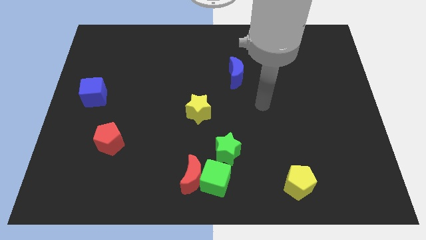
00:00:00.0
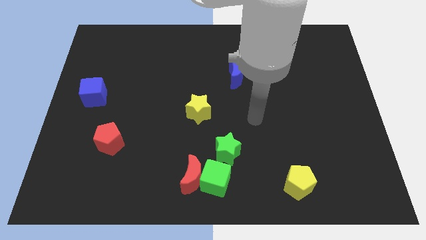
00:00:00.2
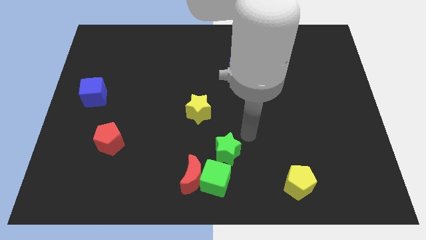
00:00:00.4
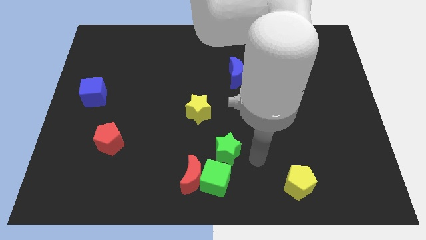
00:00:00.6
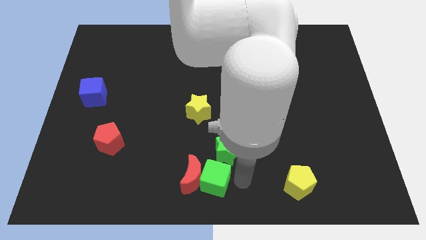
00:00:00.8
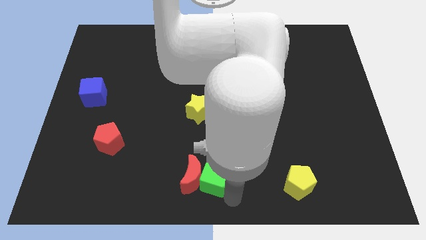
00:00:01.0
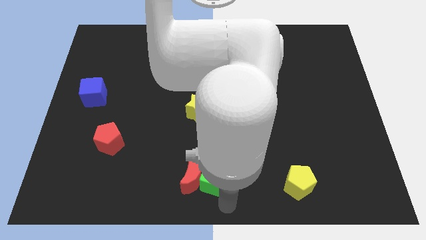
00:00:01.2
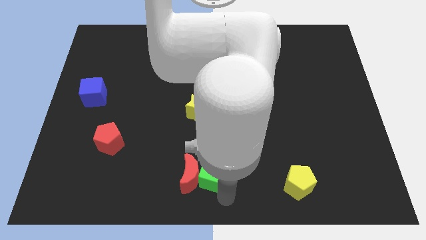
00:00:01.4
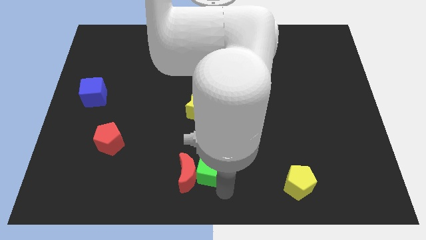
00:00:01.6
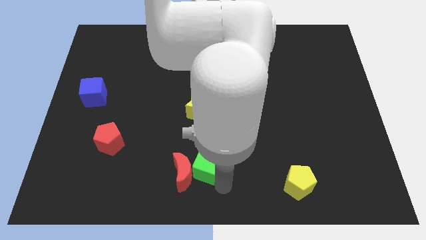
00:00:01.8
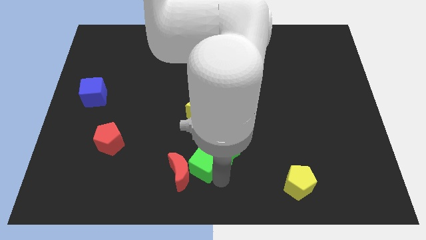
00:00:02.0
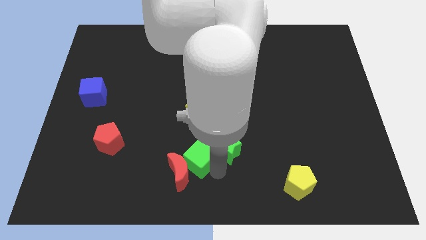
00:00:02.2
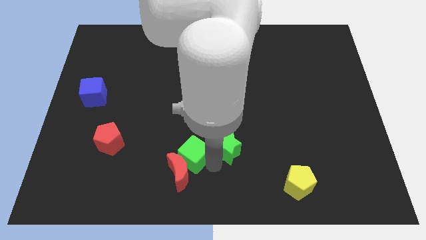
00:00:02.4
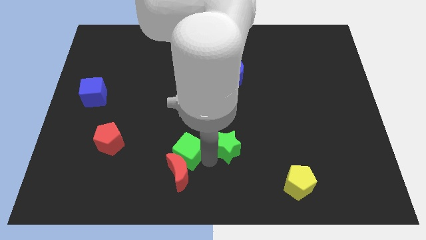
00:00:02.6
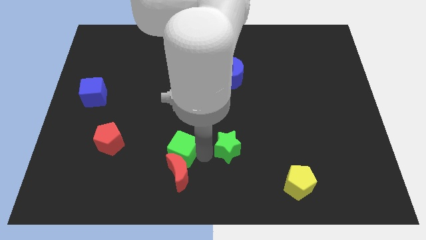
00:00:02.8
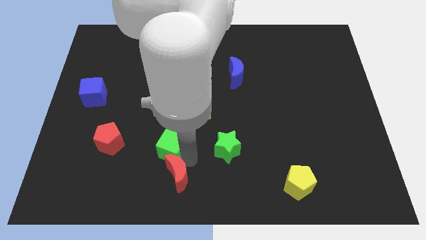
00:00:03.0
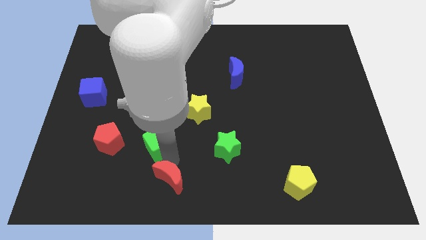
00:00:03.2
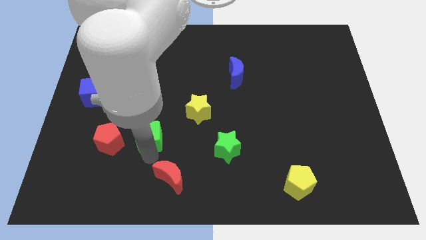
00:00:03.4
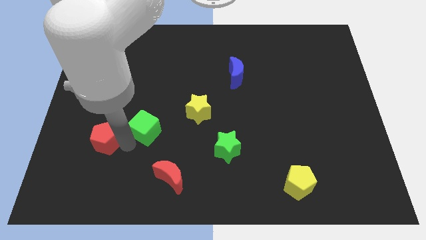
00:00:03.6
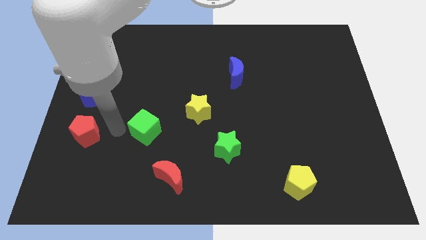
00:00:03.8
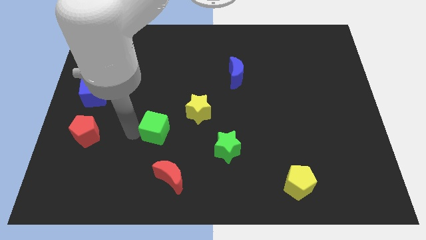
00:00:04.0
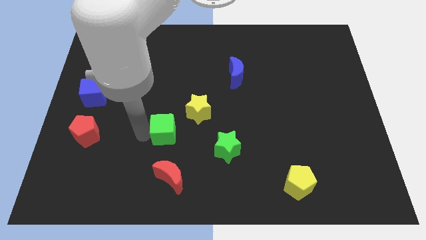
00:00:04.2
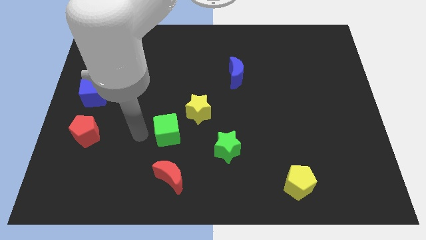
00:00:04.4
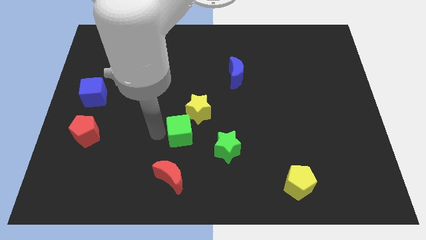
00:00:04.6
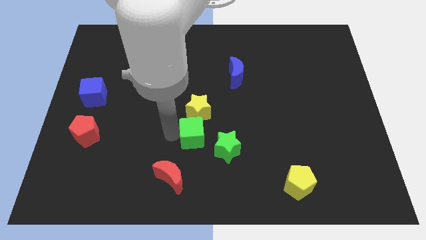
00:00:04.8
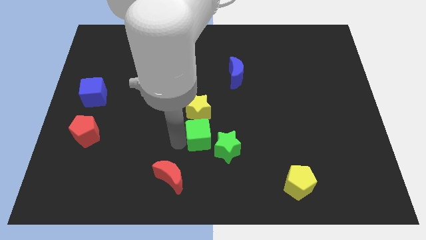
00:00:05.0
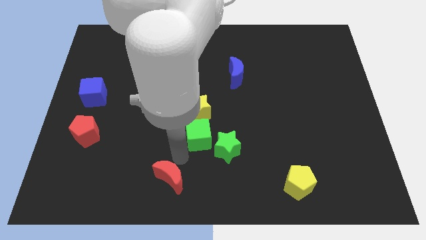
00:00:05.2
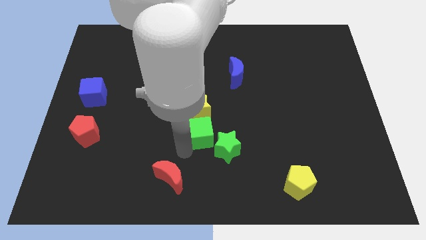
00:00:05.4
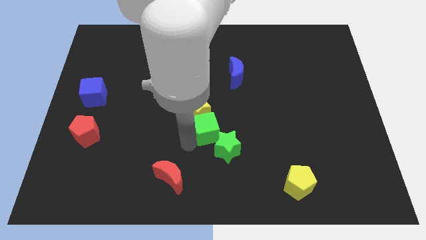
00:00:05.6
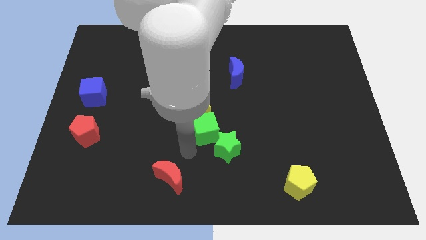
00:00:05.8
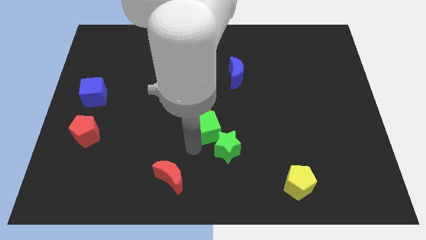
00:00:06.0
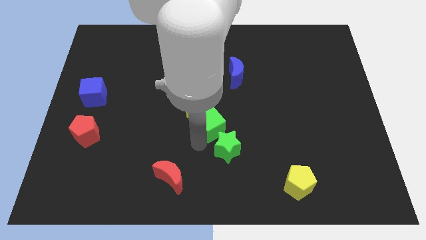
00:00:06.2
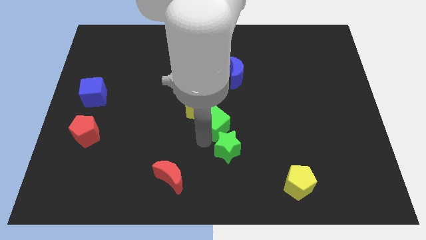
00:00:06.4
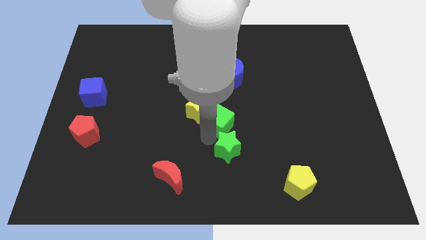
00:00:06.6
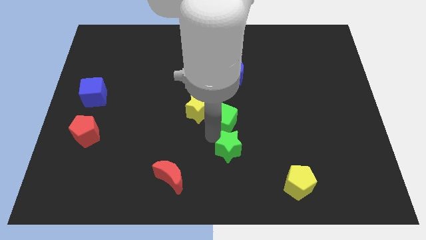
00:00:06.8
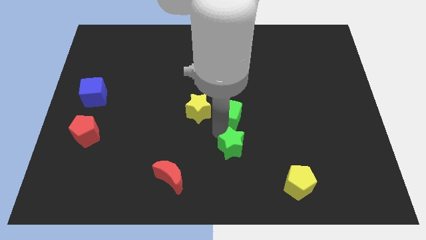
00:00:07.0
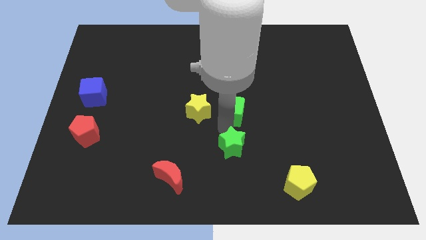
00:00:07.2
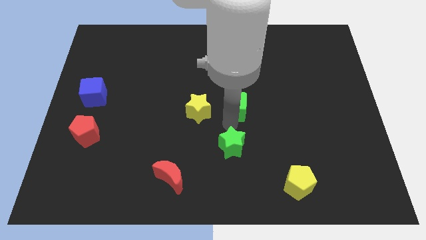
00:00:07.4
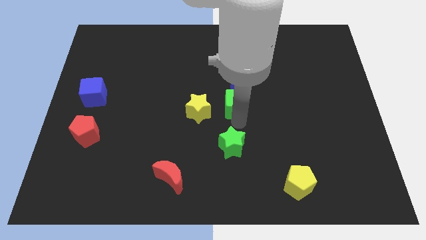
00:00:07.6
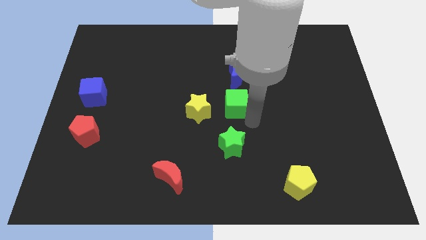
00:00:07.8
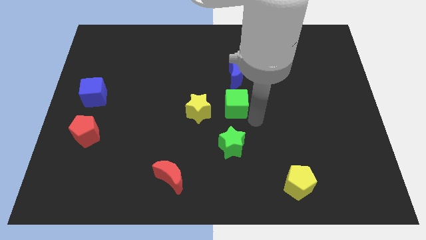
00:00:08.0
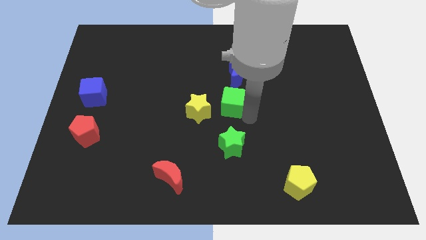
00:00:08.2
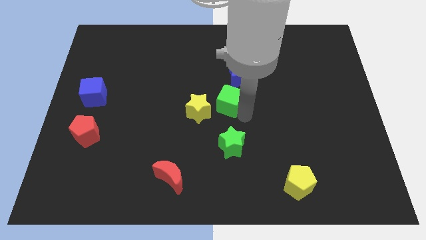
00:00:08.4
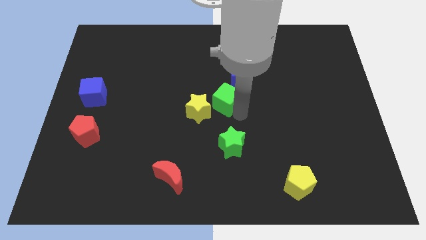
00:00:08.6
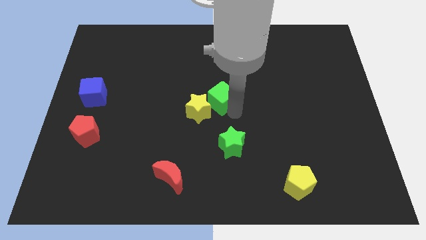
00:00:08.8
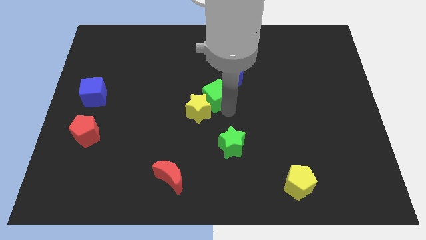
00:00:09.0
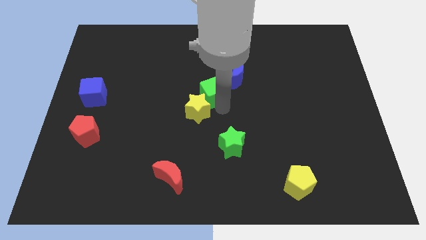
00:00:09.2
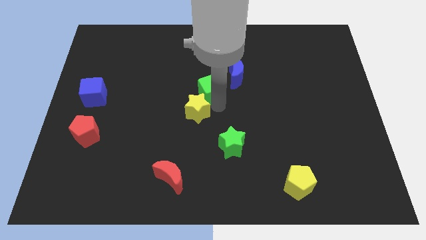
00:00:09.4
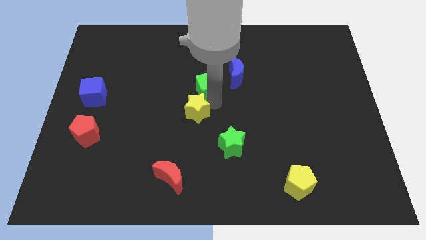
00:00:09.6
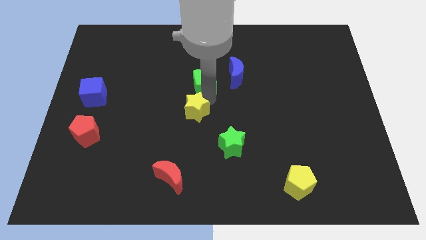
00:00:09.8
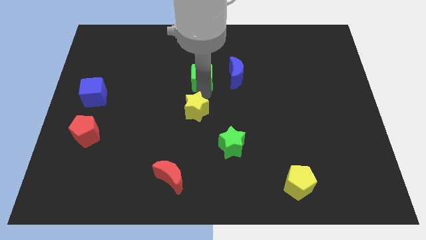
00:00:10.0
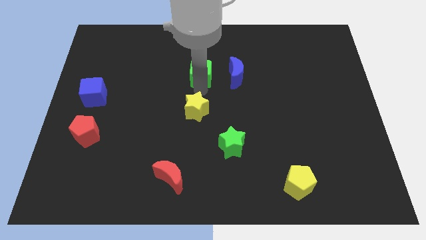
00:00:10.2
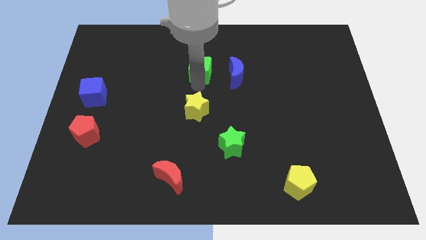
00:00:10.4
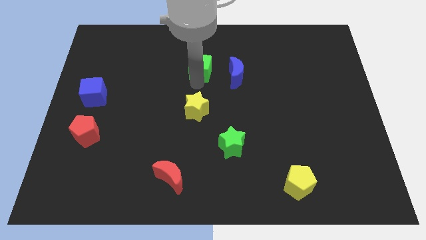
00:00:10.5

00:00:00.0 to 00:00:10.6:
slide the green cube to the top left of the blue moon

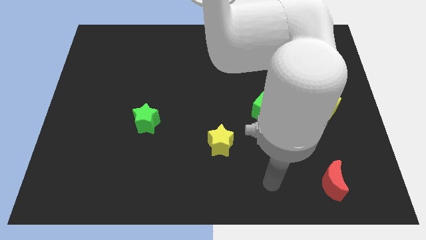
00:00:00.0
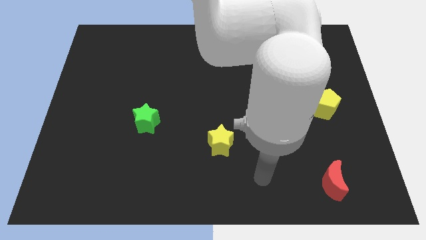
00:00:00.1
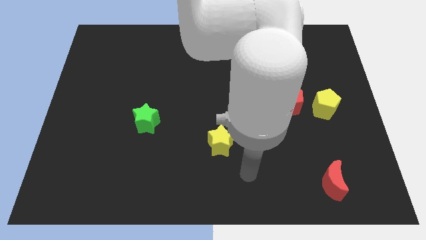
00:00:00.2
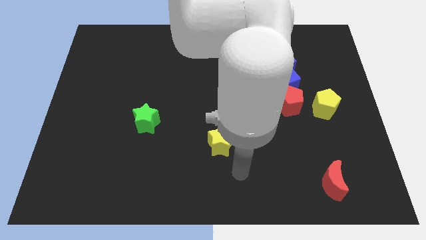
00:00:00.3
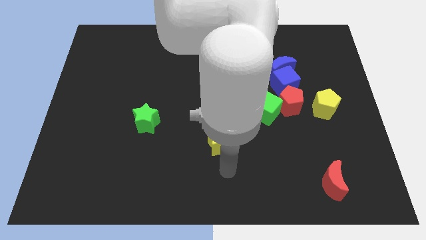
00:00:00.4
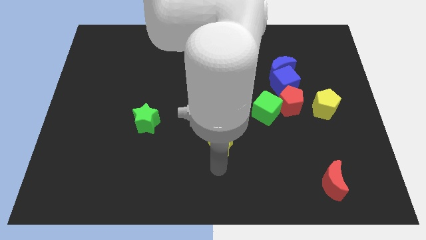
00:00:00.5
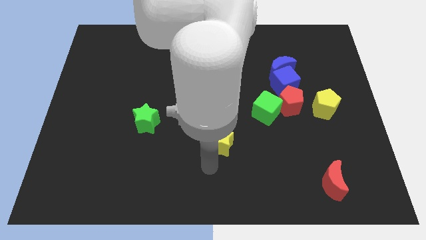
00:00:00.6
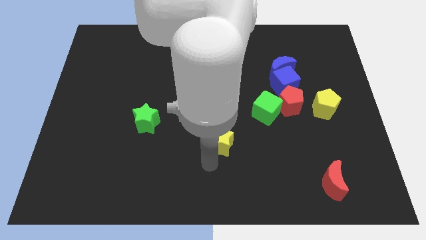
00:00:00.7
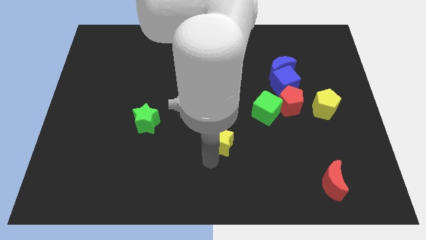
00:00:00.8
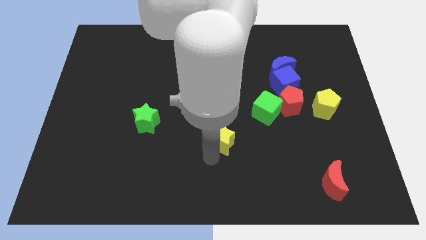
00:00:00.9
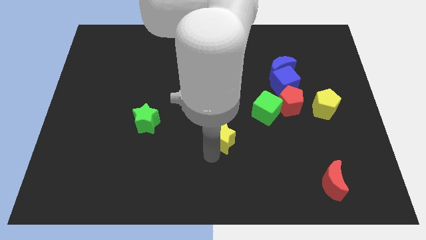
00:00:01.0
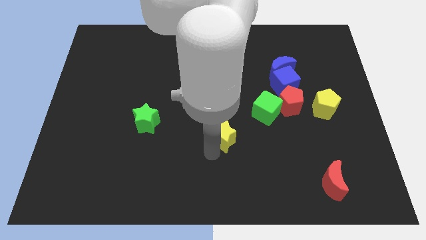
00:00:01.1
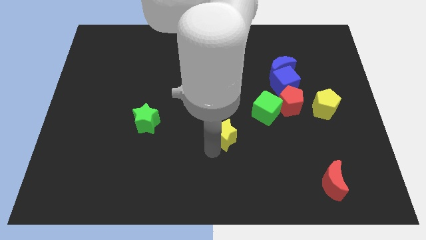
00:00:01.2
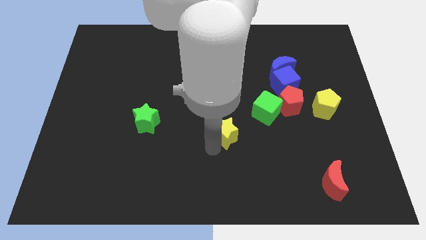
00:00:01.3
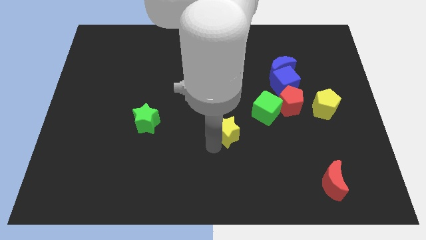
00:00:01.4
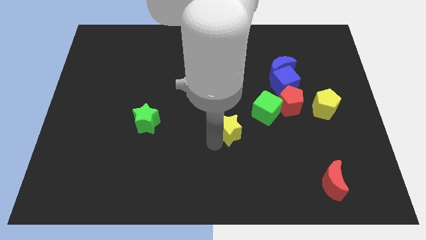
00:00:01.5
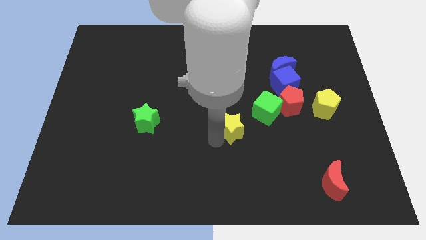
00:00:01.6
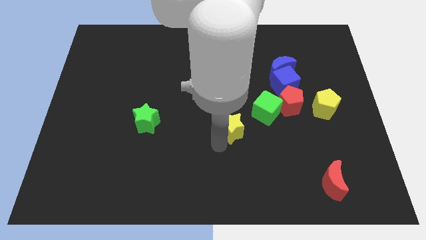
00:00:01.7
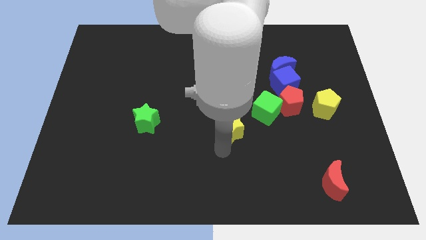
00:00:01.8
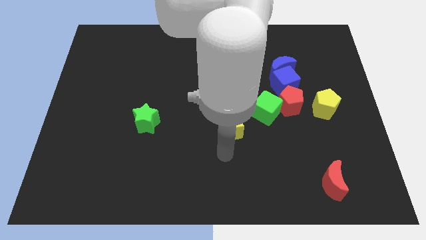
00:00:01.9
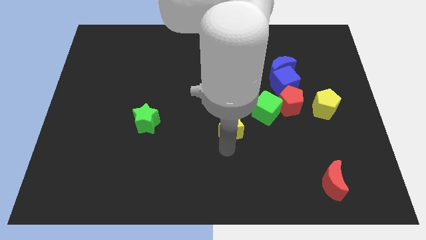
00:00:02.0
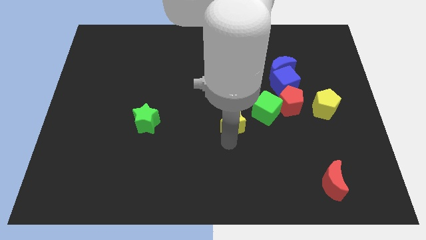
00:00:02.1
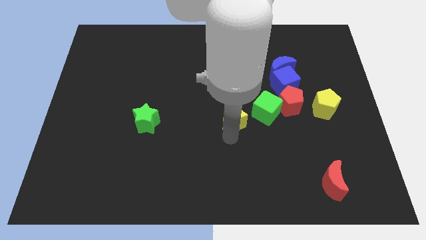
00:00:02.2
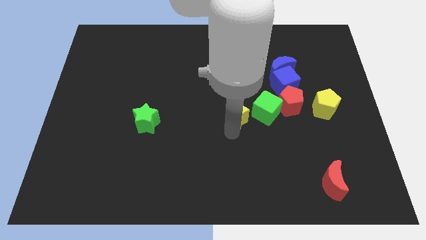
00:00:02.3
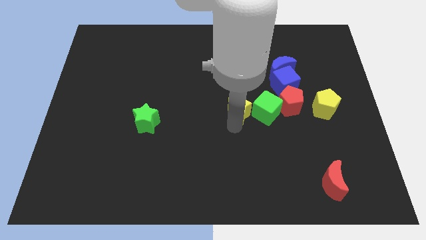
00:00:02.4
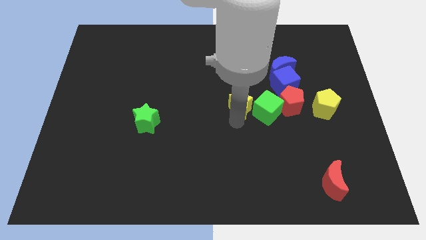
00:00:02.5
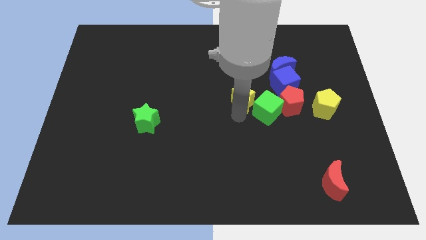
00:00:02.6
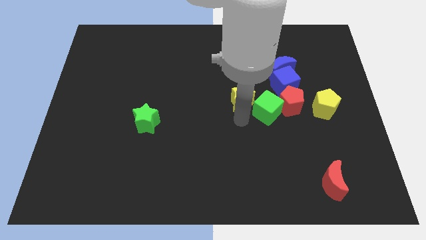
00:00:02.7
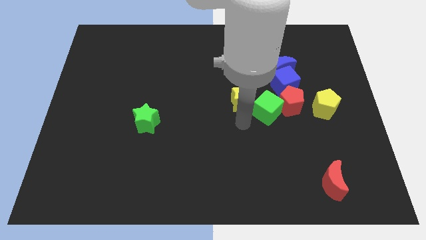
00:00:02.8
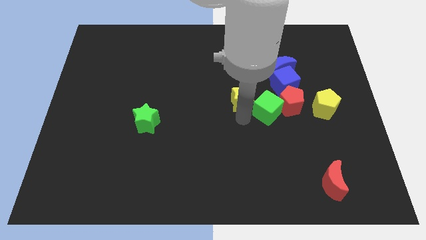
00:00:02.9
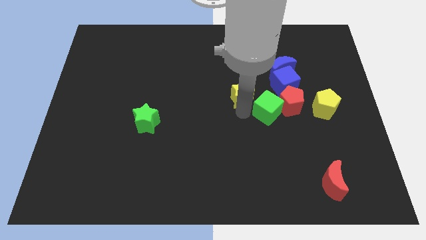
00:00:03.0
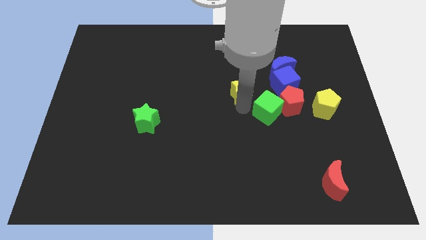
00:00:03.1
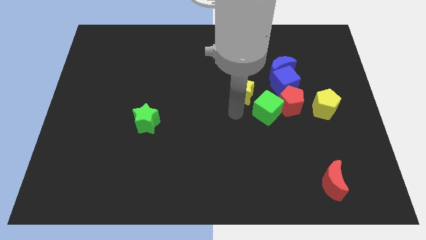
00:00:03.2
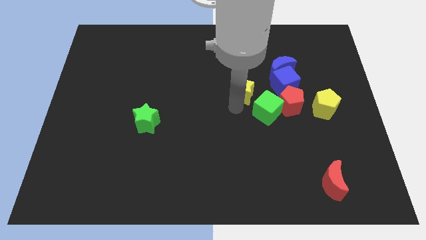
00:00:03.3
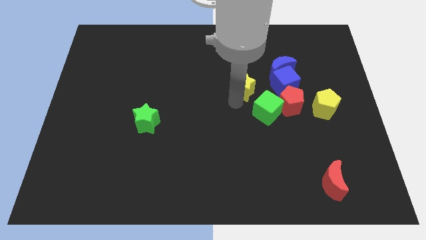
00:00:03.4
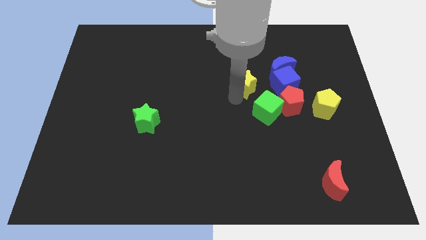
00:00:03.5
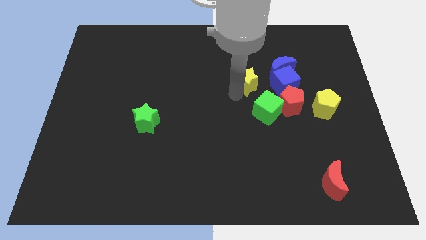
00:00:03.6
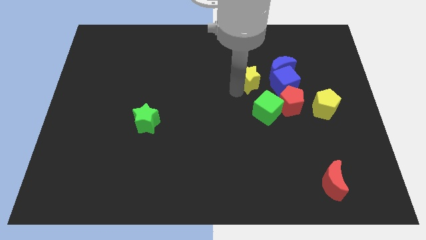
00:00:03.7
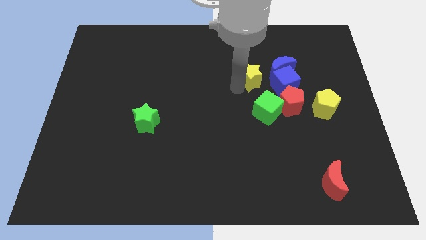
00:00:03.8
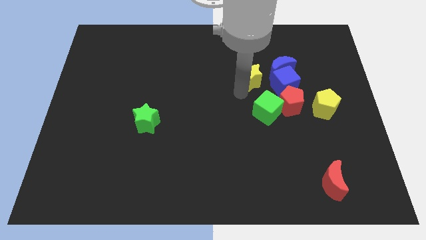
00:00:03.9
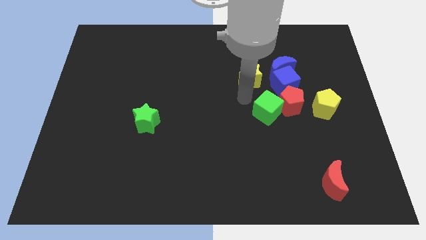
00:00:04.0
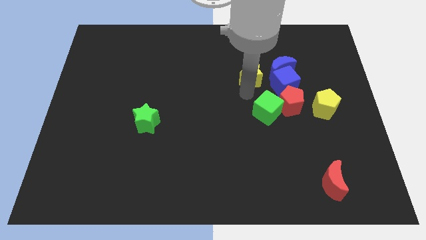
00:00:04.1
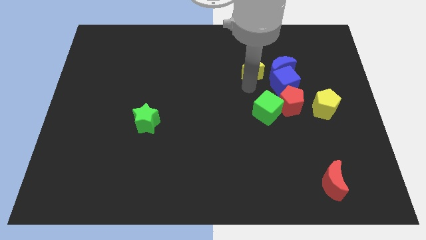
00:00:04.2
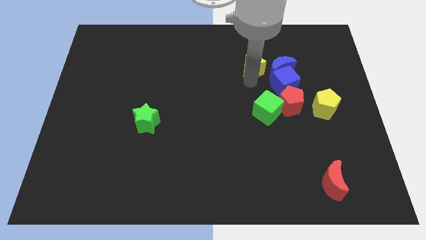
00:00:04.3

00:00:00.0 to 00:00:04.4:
move the yellow star to the top left side of the blue moon
